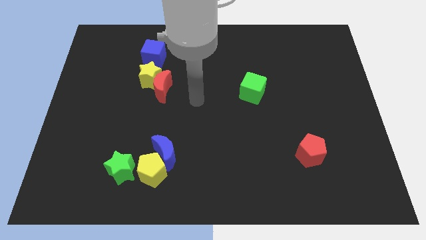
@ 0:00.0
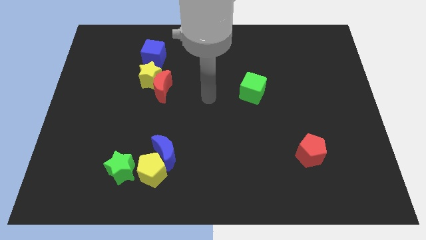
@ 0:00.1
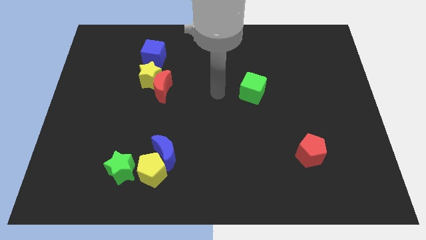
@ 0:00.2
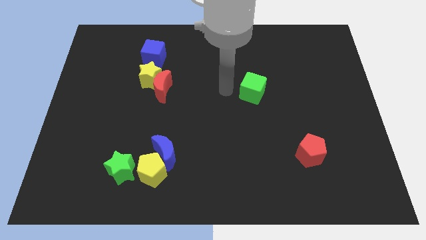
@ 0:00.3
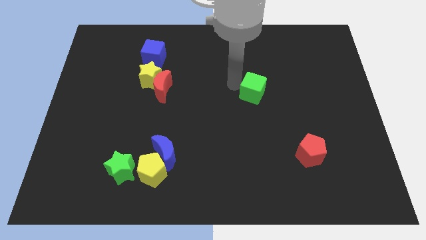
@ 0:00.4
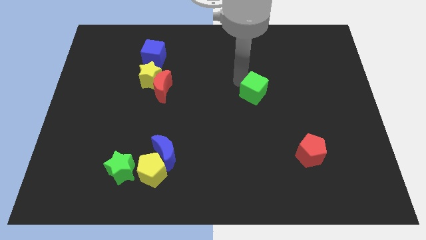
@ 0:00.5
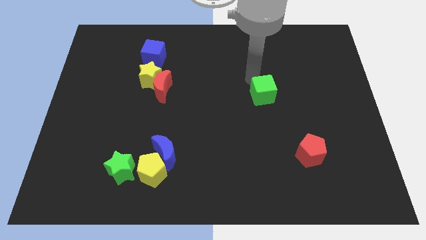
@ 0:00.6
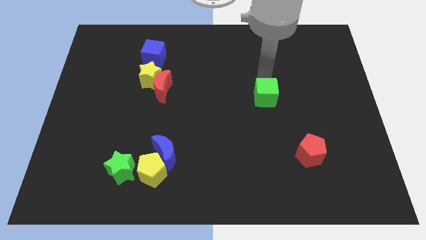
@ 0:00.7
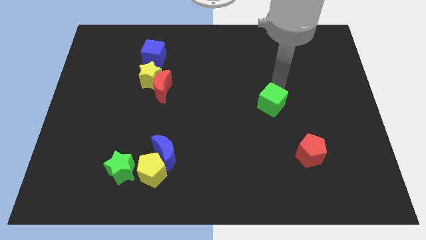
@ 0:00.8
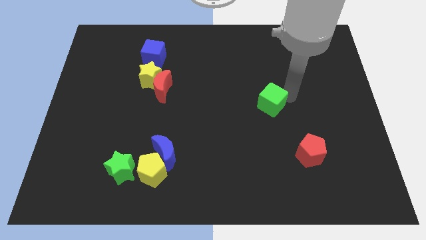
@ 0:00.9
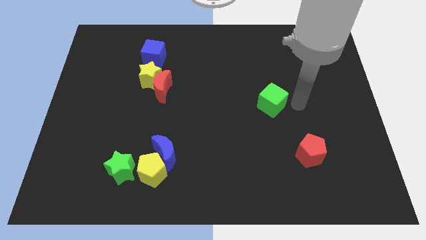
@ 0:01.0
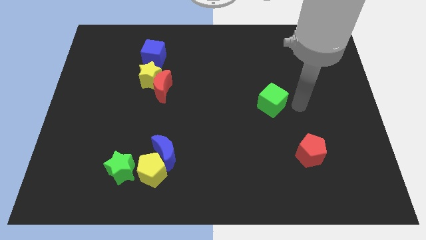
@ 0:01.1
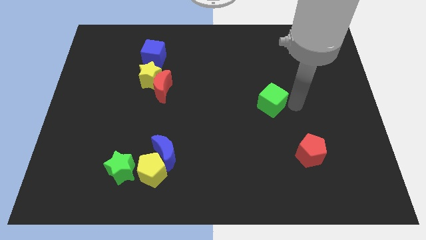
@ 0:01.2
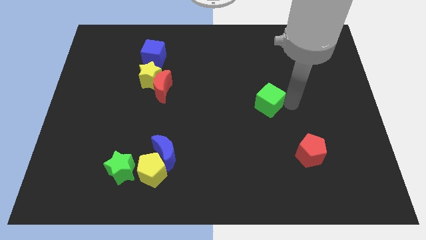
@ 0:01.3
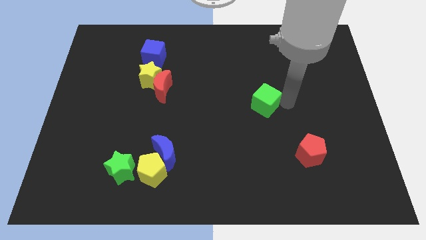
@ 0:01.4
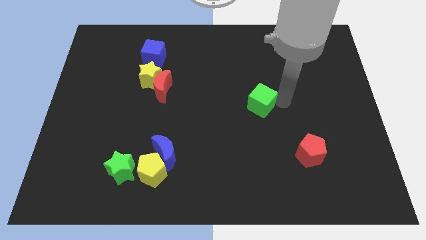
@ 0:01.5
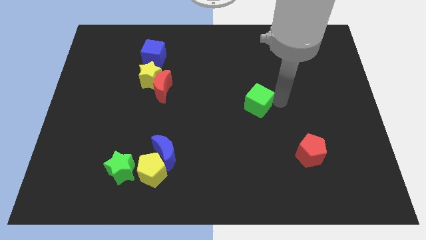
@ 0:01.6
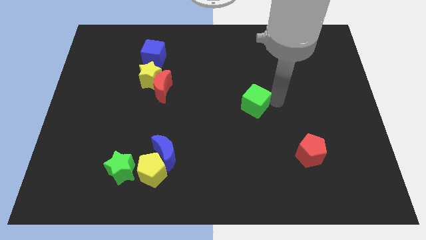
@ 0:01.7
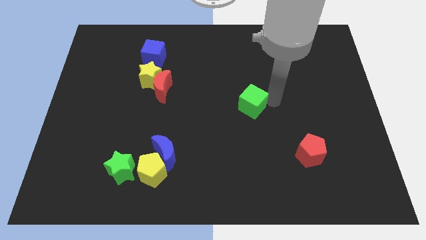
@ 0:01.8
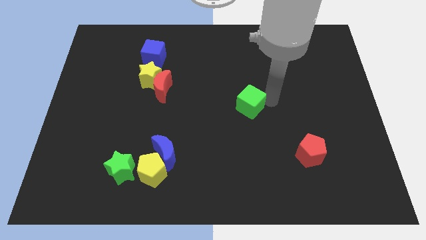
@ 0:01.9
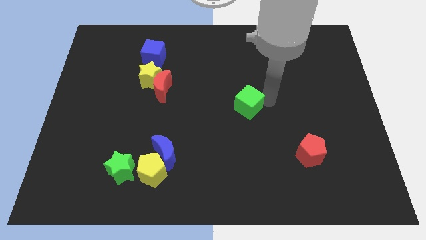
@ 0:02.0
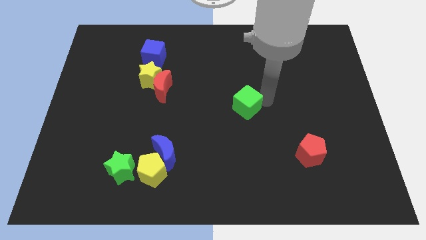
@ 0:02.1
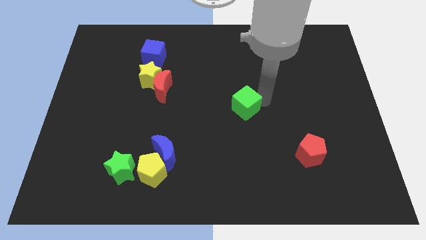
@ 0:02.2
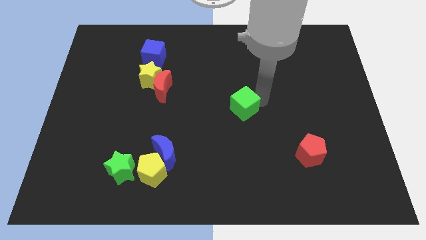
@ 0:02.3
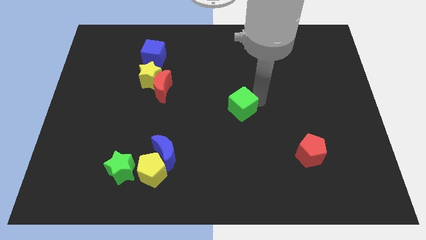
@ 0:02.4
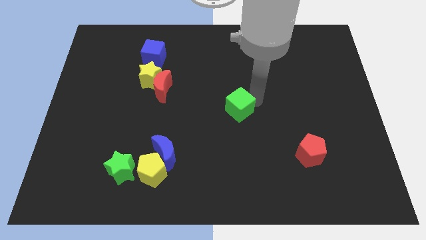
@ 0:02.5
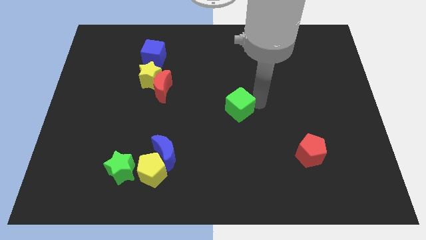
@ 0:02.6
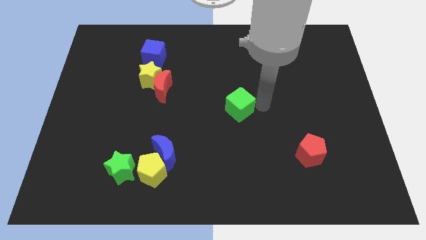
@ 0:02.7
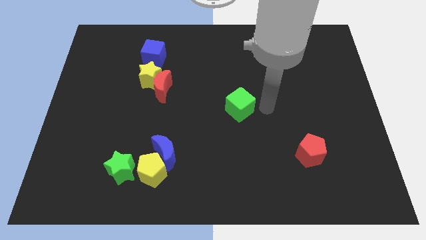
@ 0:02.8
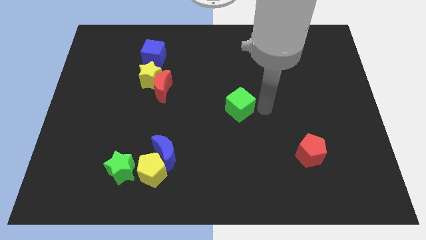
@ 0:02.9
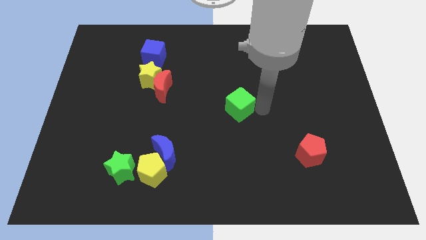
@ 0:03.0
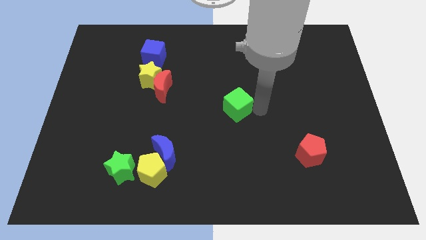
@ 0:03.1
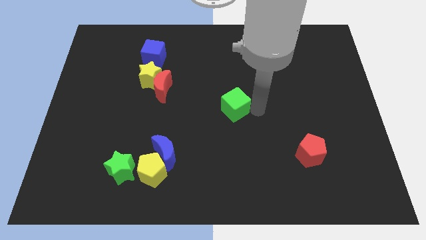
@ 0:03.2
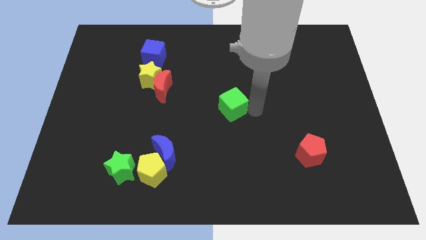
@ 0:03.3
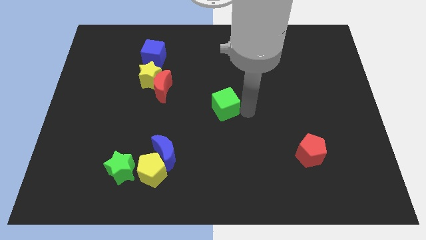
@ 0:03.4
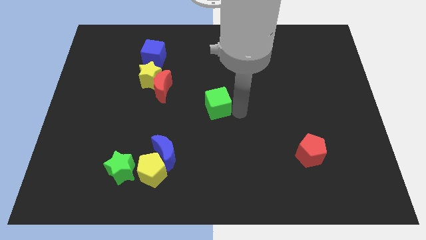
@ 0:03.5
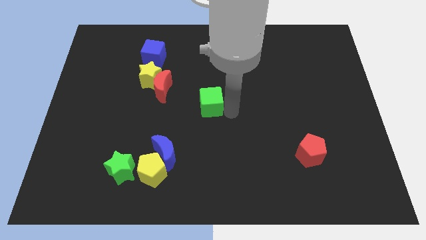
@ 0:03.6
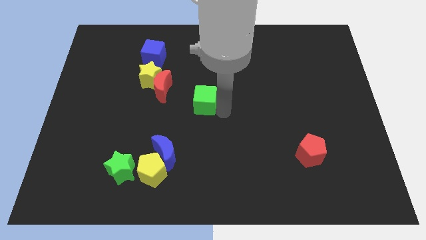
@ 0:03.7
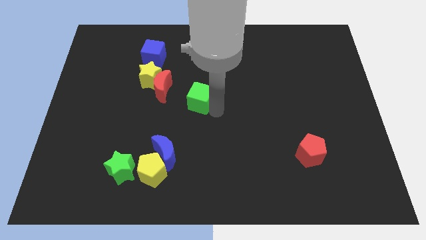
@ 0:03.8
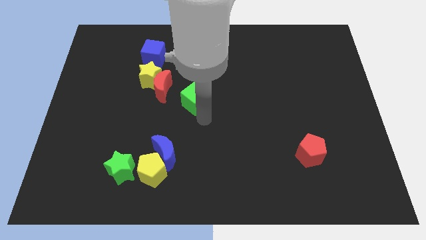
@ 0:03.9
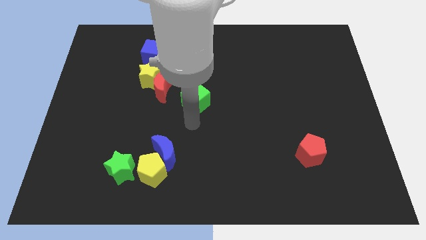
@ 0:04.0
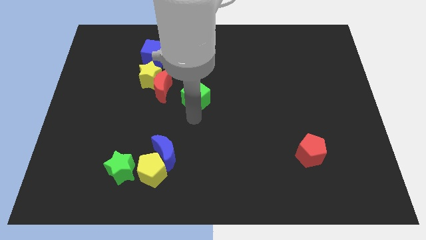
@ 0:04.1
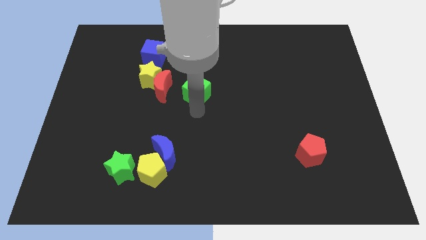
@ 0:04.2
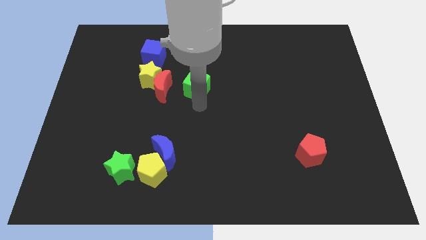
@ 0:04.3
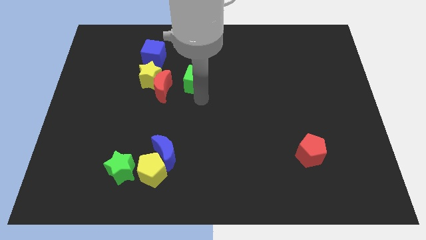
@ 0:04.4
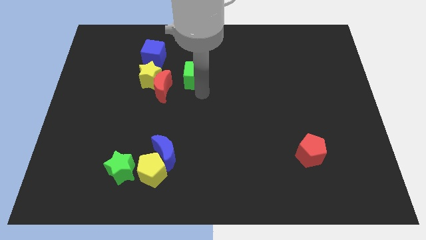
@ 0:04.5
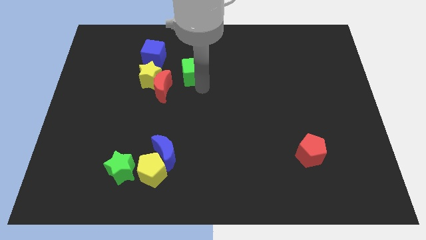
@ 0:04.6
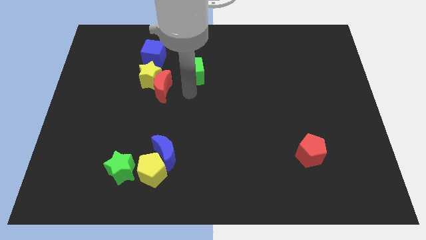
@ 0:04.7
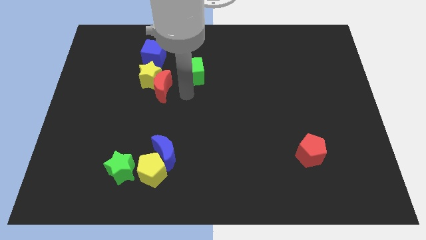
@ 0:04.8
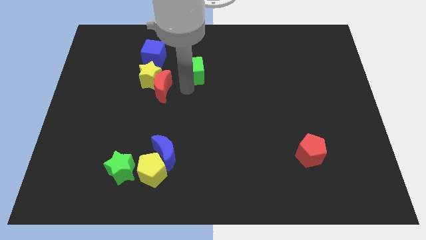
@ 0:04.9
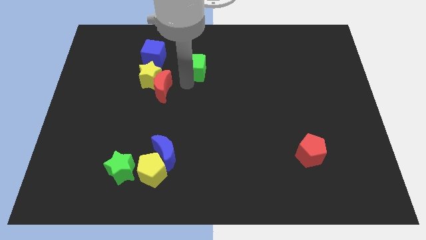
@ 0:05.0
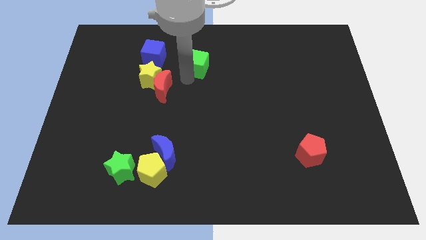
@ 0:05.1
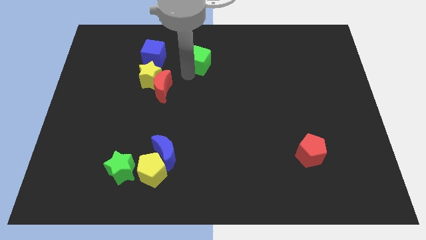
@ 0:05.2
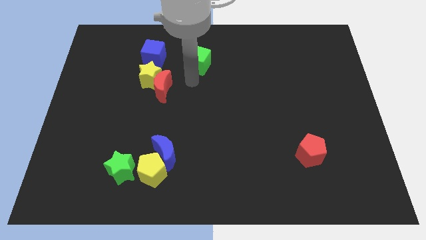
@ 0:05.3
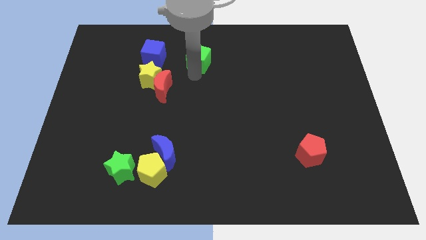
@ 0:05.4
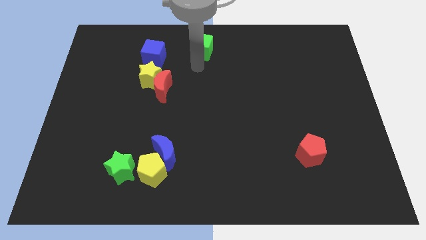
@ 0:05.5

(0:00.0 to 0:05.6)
put the green cube to the towards your base

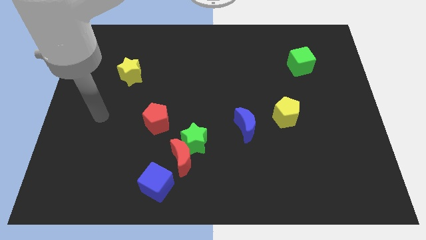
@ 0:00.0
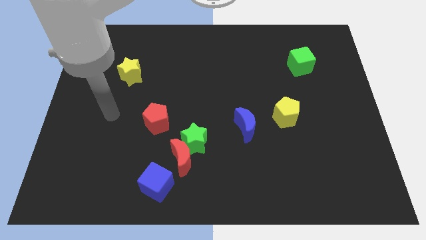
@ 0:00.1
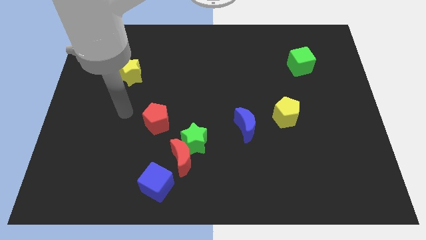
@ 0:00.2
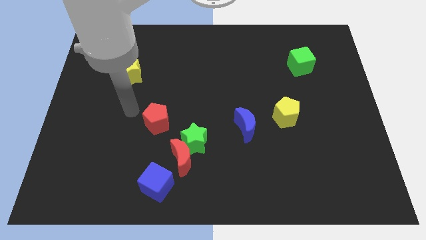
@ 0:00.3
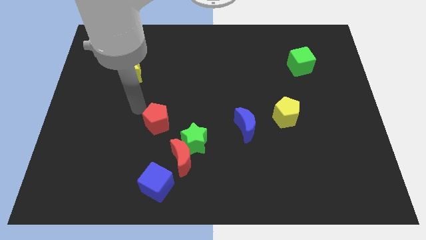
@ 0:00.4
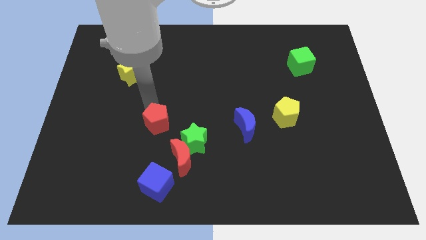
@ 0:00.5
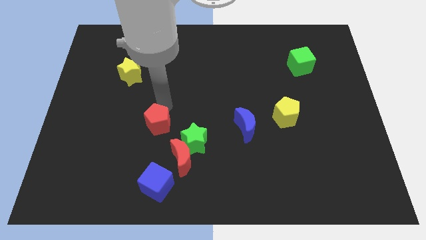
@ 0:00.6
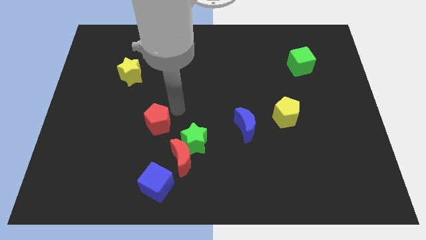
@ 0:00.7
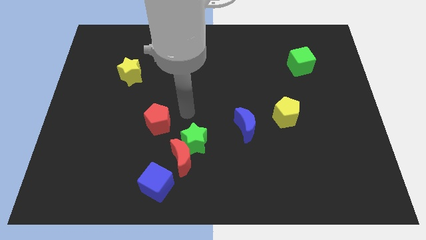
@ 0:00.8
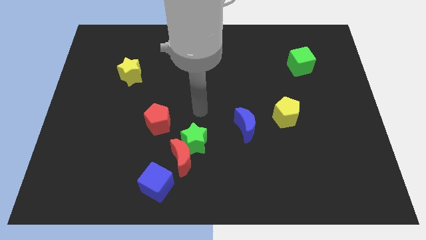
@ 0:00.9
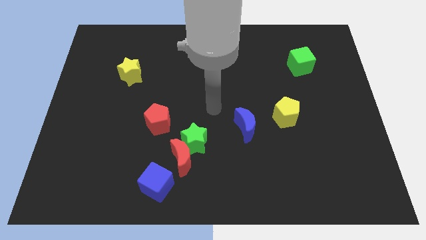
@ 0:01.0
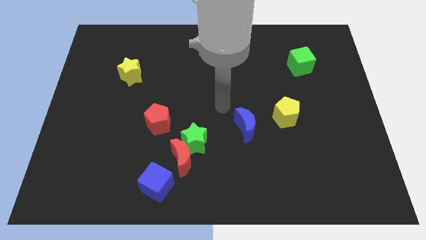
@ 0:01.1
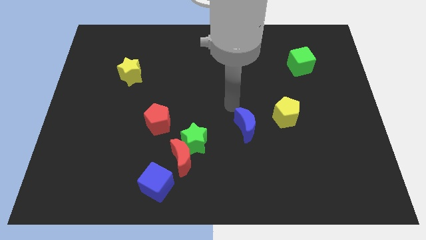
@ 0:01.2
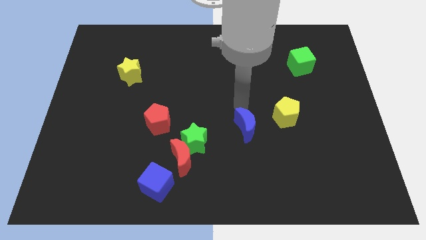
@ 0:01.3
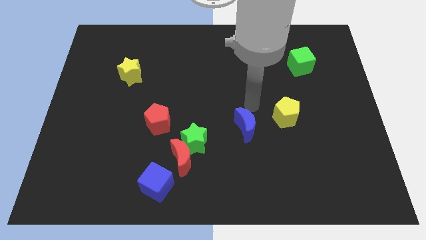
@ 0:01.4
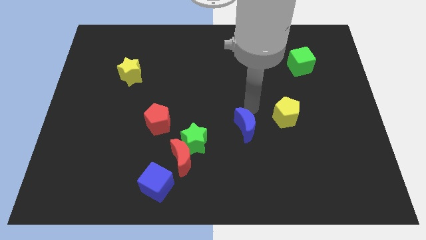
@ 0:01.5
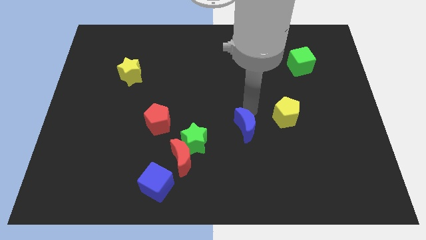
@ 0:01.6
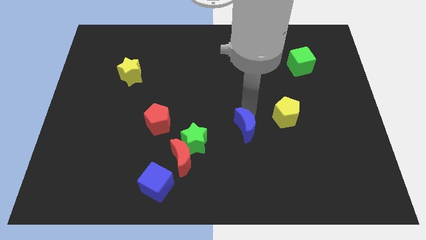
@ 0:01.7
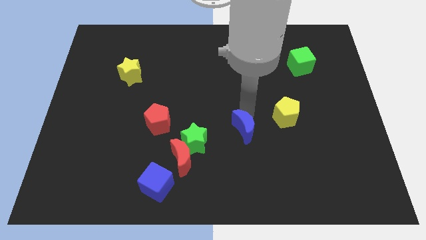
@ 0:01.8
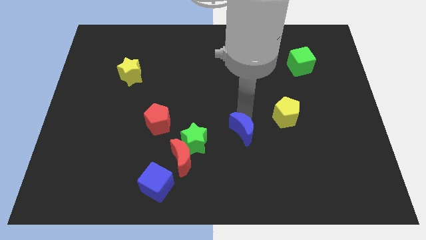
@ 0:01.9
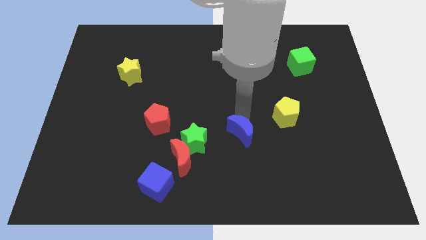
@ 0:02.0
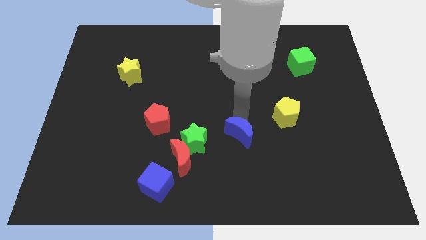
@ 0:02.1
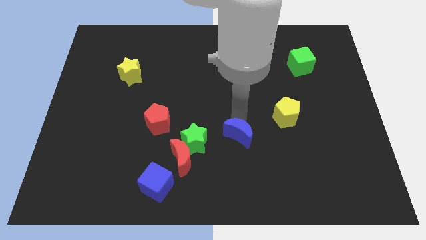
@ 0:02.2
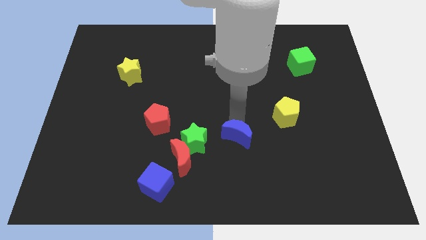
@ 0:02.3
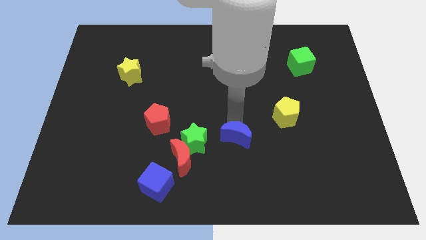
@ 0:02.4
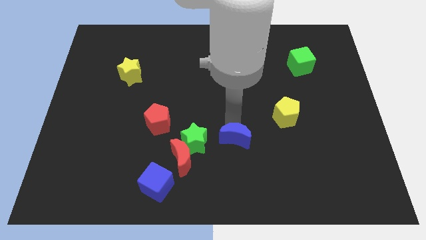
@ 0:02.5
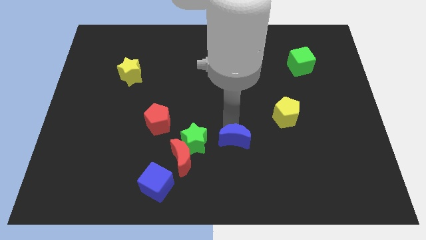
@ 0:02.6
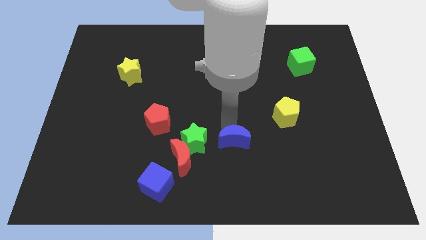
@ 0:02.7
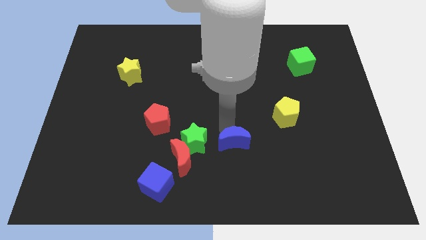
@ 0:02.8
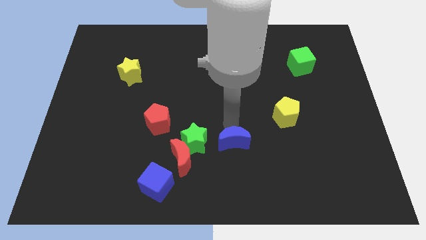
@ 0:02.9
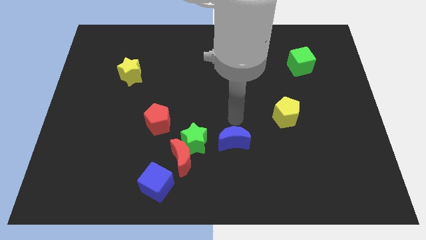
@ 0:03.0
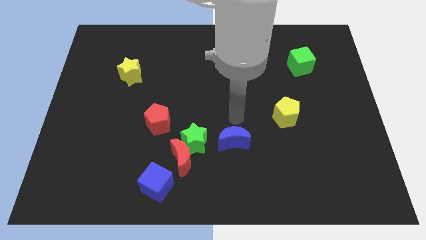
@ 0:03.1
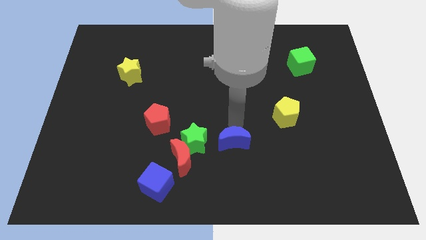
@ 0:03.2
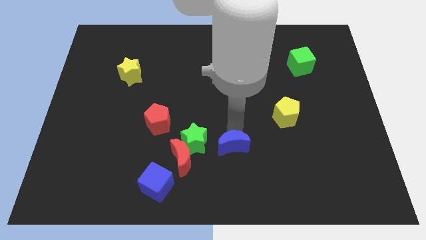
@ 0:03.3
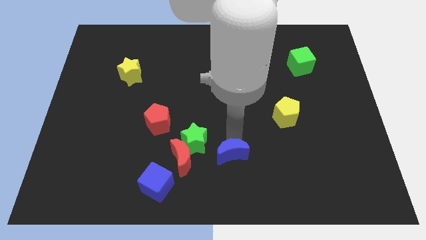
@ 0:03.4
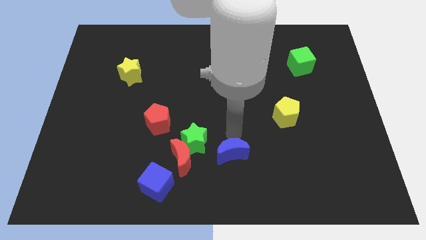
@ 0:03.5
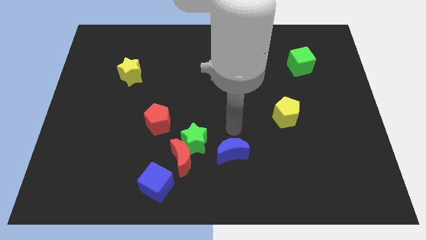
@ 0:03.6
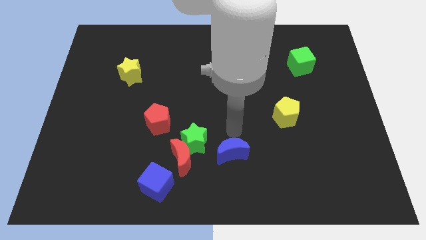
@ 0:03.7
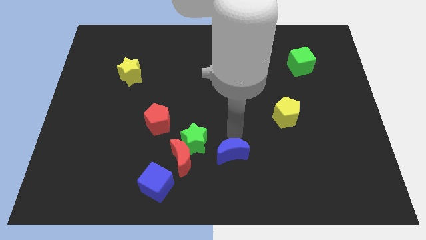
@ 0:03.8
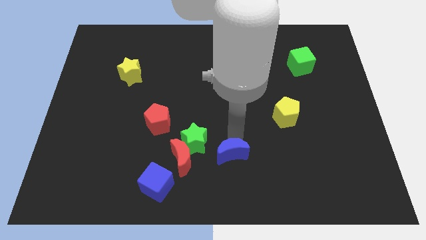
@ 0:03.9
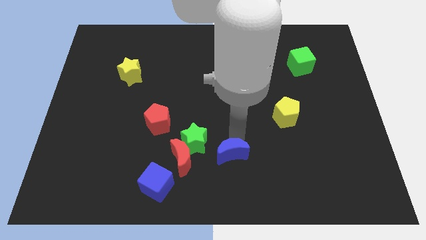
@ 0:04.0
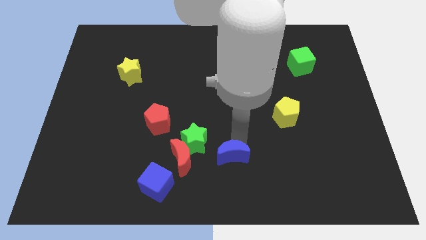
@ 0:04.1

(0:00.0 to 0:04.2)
move the blue moon to the bottom side
